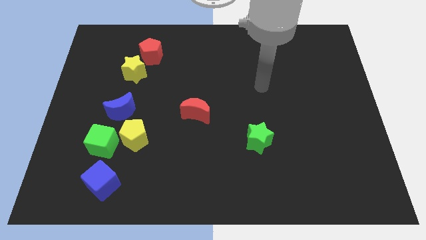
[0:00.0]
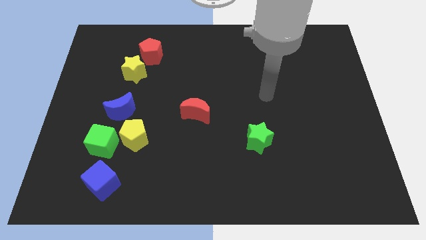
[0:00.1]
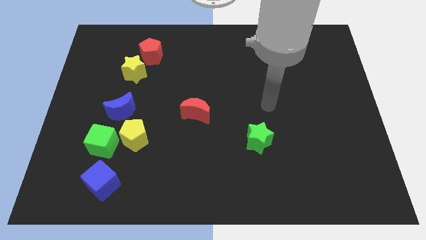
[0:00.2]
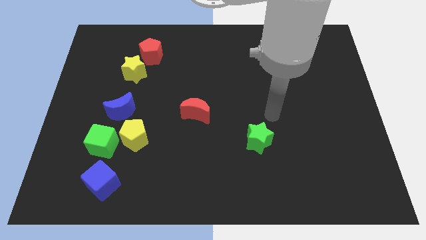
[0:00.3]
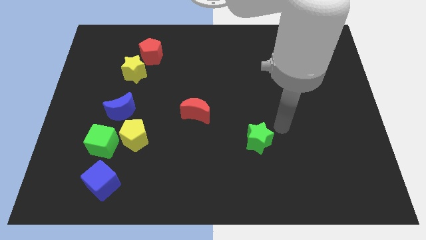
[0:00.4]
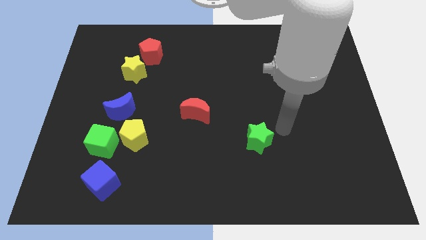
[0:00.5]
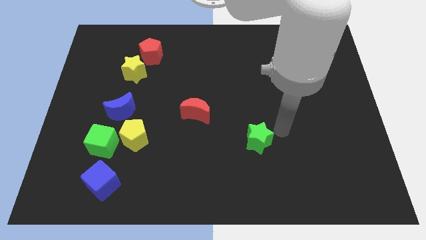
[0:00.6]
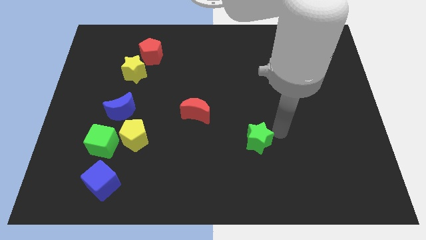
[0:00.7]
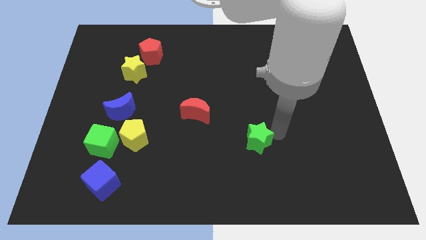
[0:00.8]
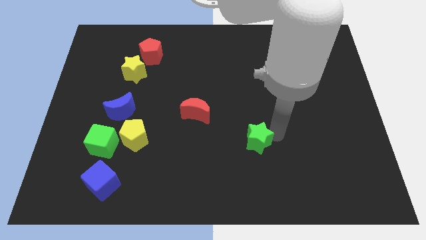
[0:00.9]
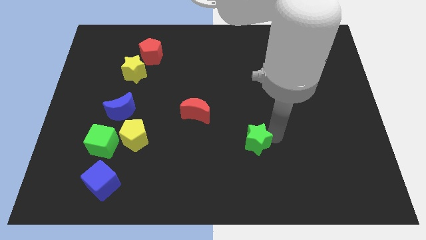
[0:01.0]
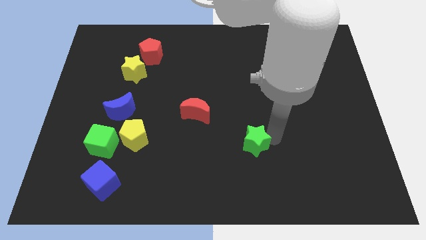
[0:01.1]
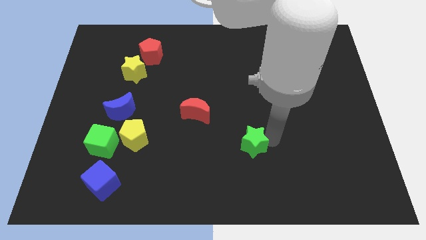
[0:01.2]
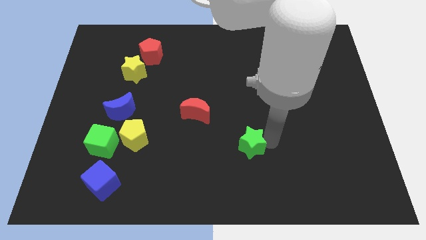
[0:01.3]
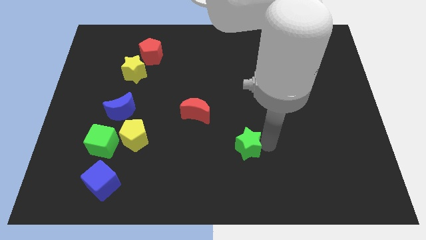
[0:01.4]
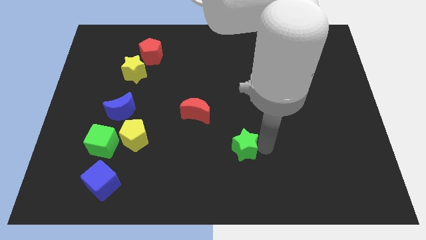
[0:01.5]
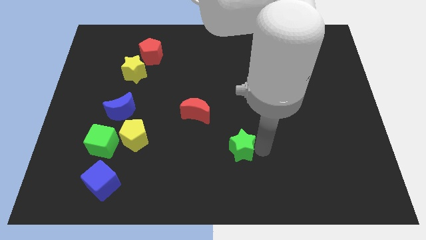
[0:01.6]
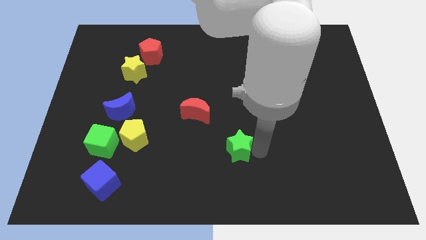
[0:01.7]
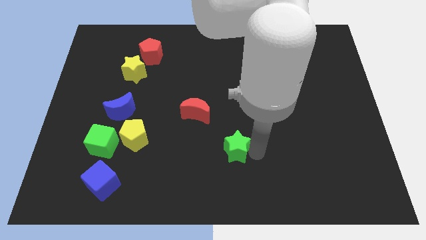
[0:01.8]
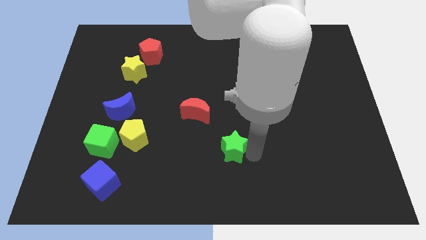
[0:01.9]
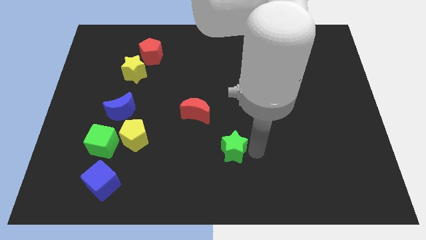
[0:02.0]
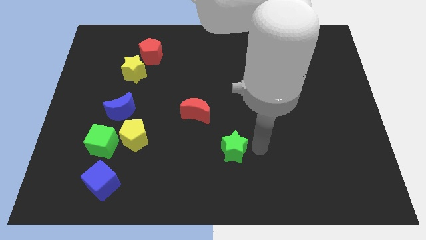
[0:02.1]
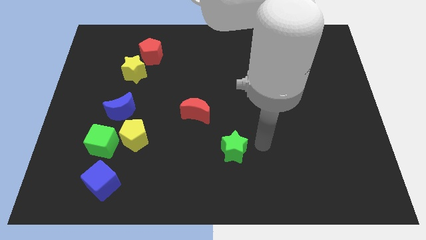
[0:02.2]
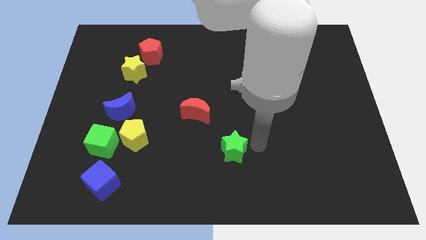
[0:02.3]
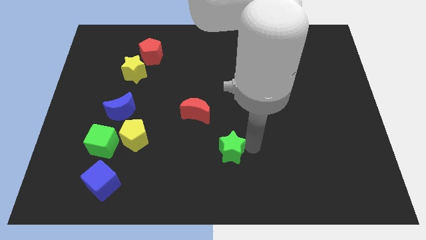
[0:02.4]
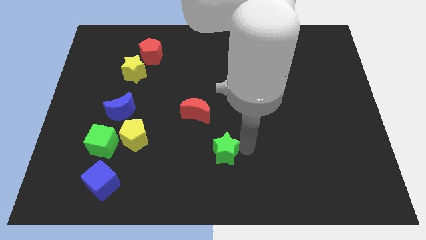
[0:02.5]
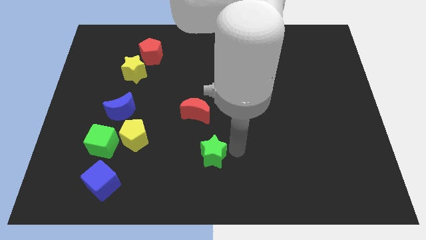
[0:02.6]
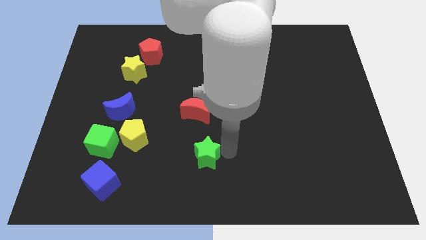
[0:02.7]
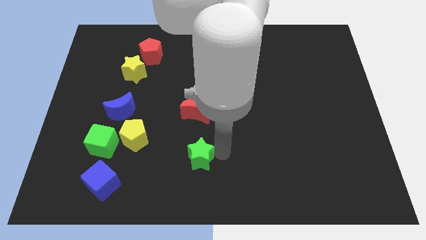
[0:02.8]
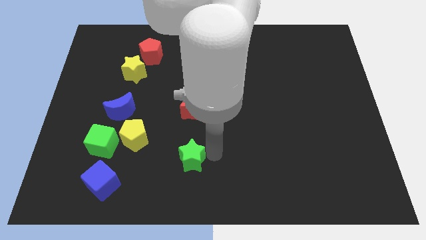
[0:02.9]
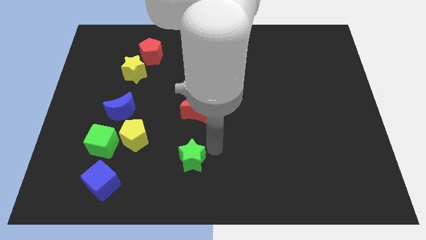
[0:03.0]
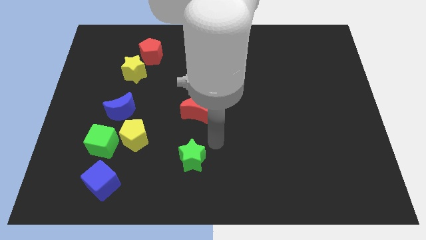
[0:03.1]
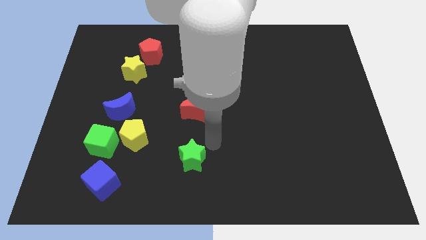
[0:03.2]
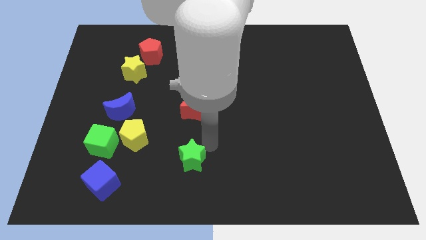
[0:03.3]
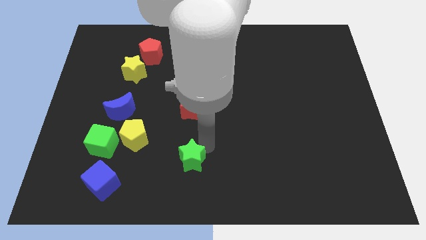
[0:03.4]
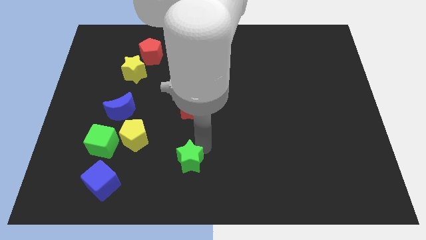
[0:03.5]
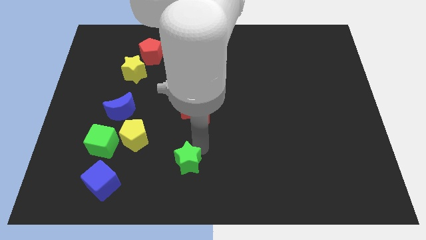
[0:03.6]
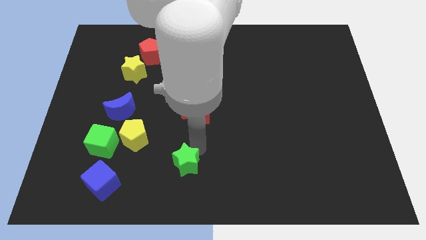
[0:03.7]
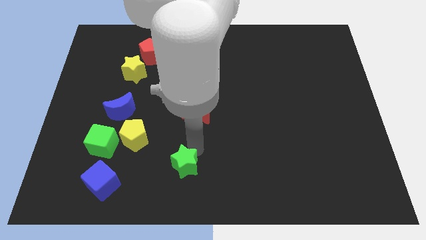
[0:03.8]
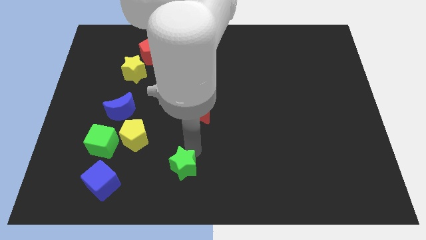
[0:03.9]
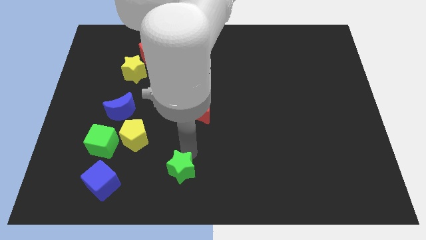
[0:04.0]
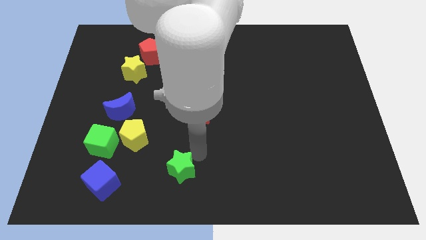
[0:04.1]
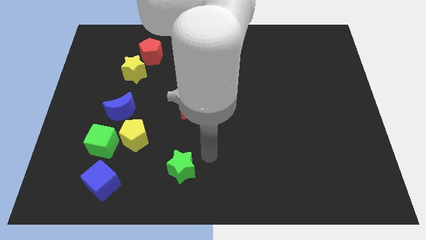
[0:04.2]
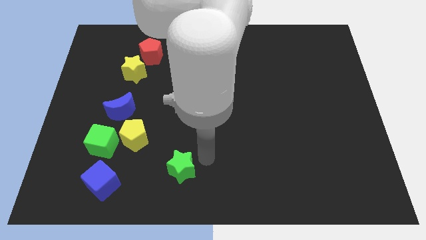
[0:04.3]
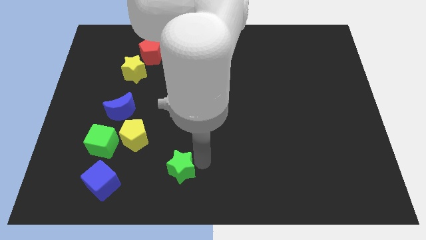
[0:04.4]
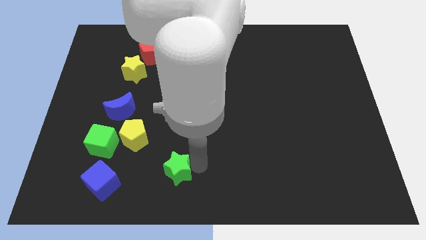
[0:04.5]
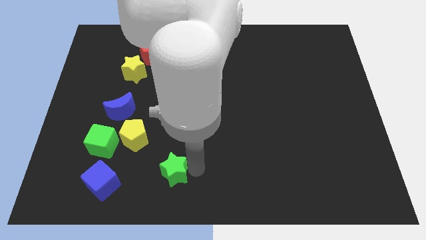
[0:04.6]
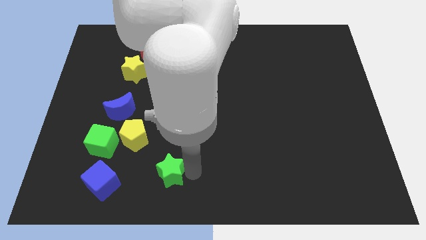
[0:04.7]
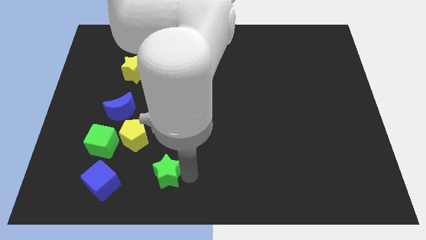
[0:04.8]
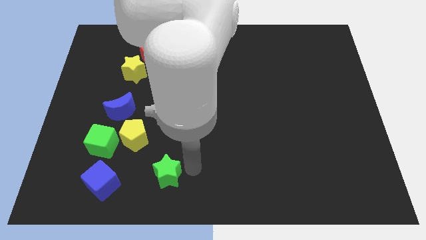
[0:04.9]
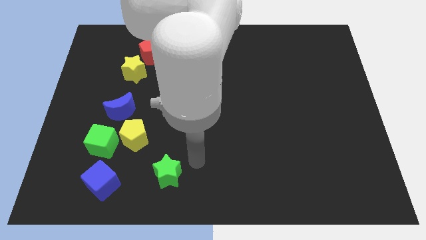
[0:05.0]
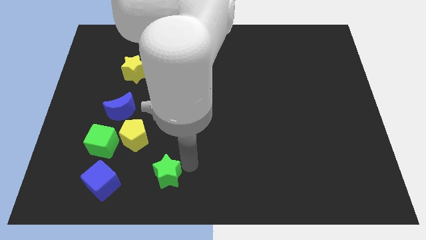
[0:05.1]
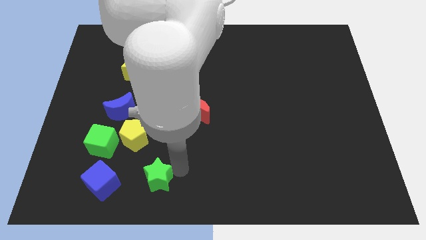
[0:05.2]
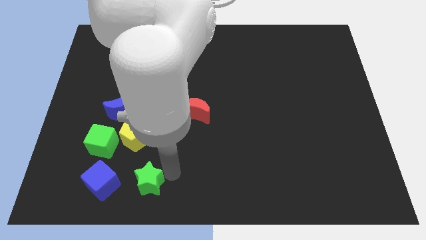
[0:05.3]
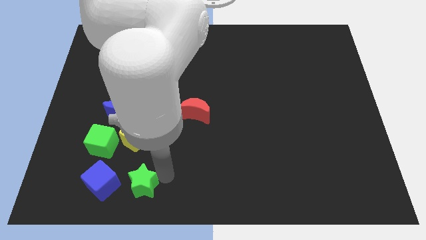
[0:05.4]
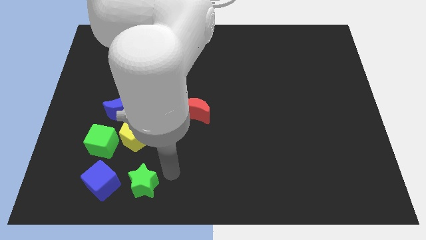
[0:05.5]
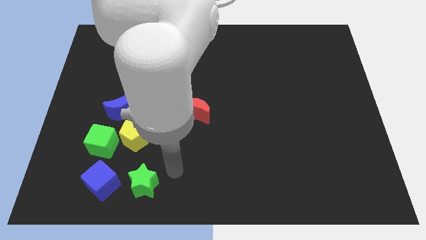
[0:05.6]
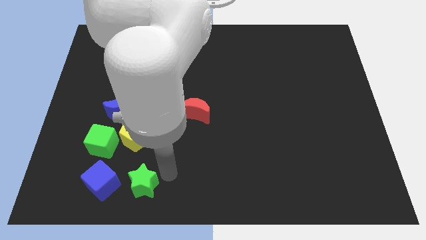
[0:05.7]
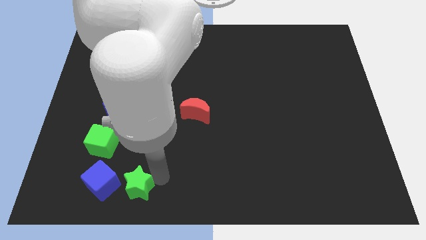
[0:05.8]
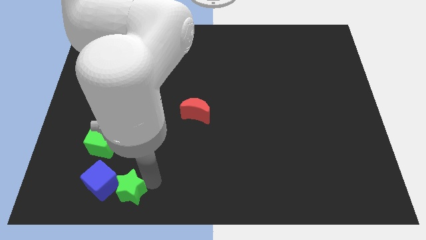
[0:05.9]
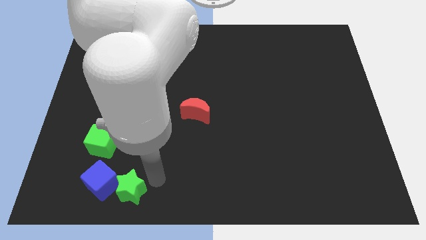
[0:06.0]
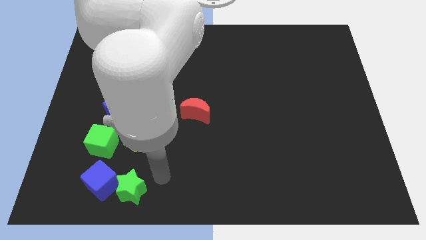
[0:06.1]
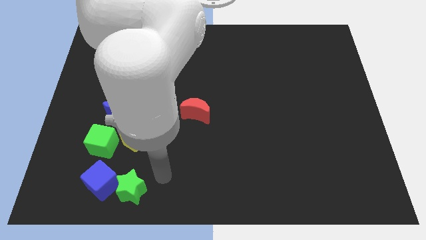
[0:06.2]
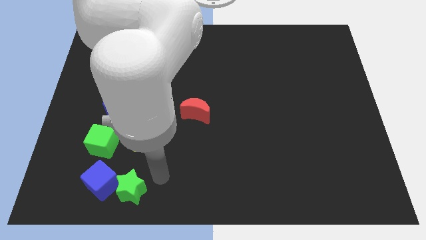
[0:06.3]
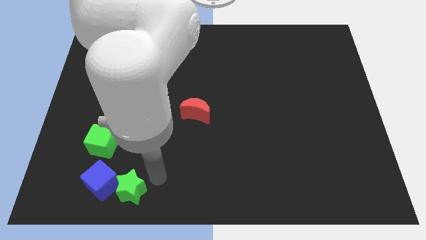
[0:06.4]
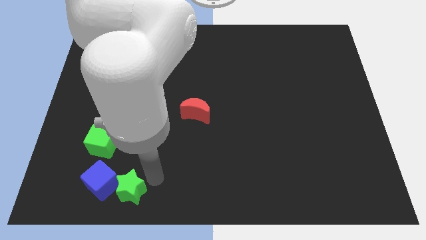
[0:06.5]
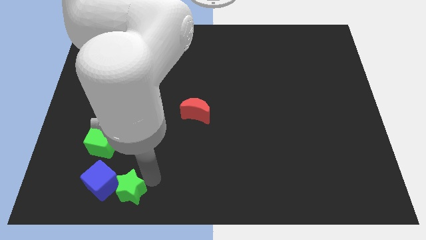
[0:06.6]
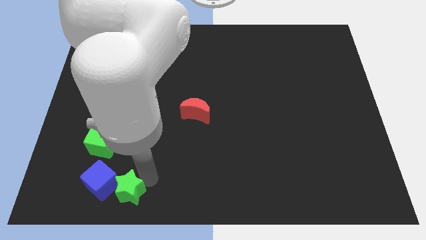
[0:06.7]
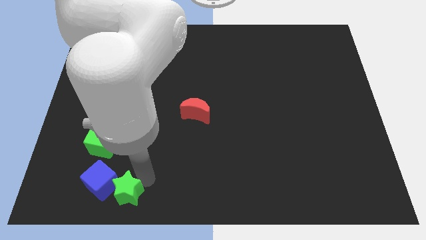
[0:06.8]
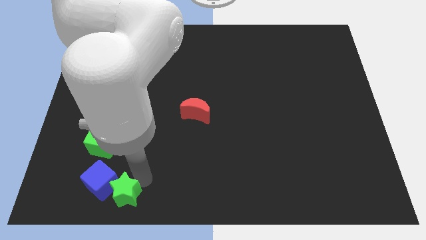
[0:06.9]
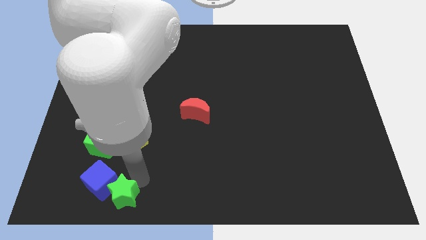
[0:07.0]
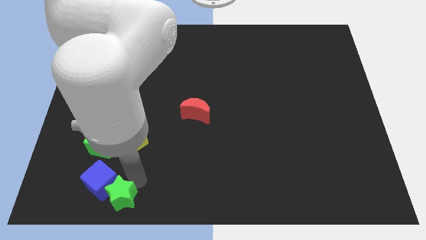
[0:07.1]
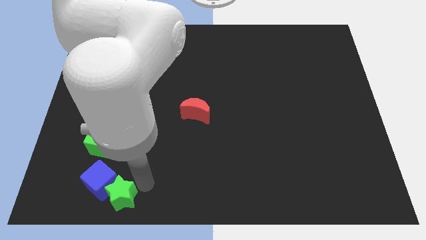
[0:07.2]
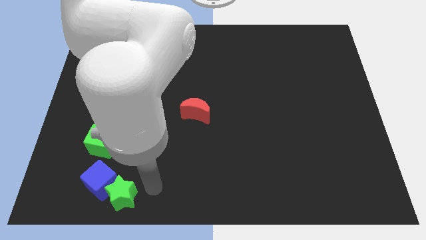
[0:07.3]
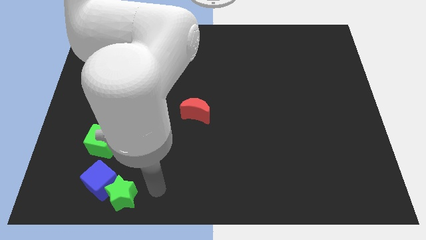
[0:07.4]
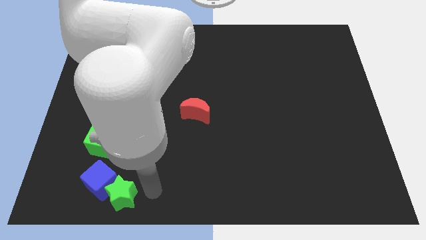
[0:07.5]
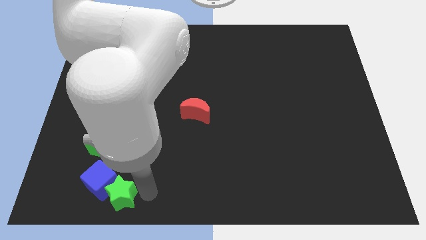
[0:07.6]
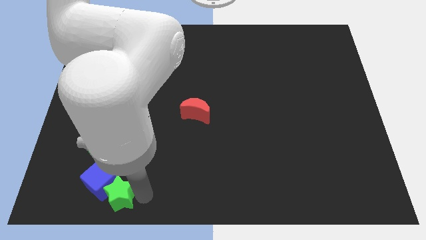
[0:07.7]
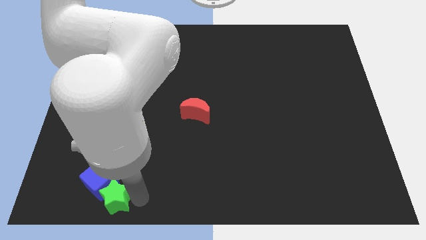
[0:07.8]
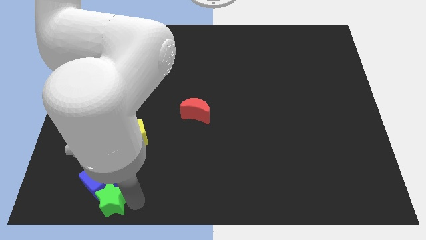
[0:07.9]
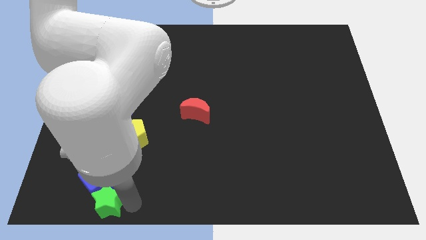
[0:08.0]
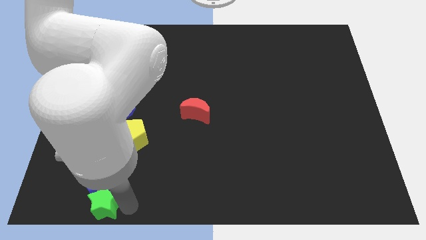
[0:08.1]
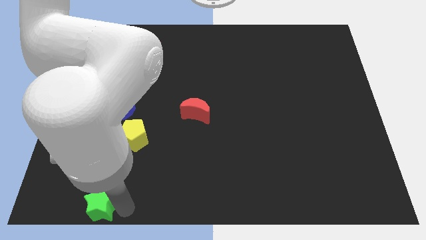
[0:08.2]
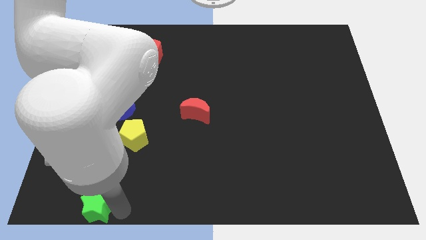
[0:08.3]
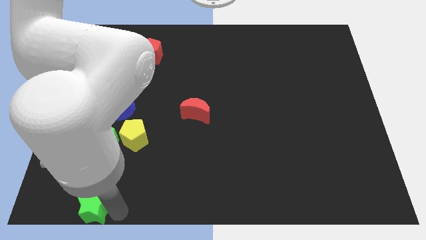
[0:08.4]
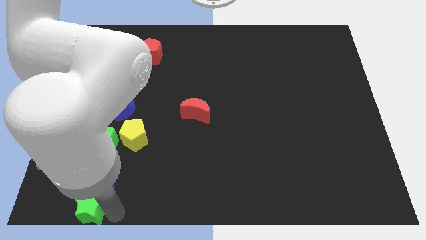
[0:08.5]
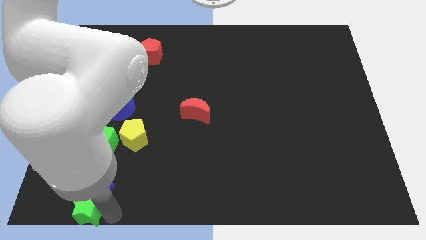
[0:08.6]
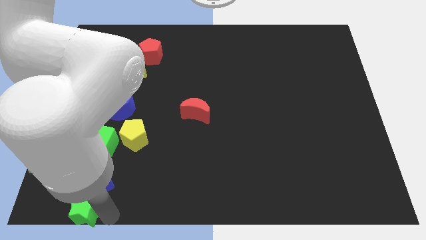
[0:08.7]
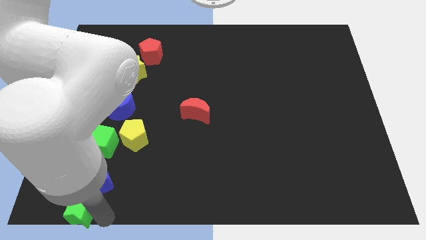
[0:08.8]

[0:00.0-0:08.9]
slide the green star to the bottom left
